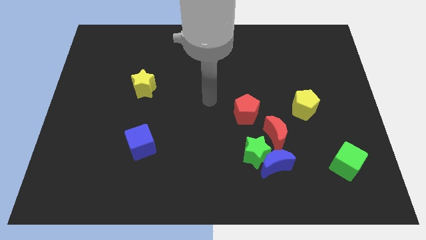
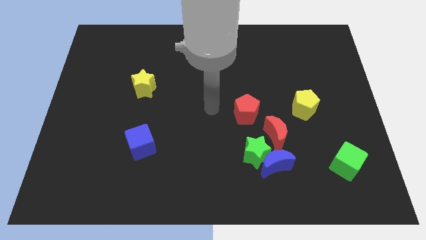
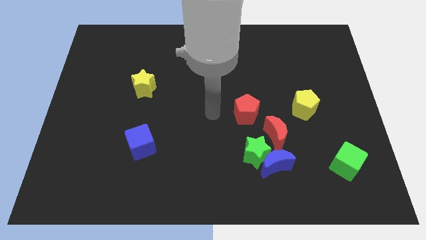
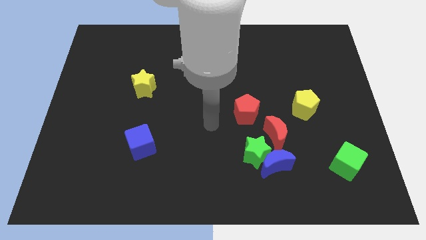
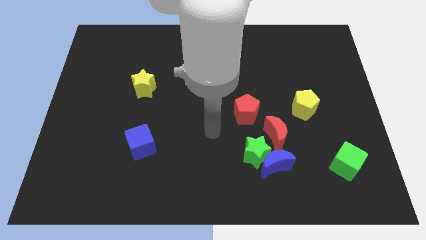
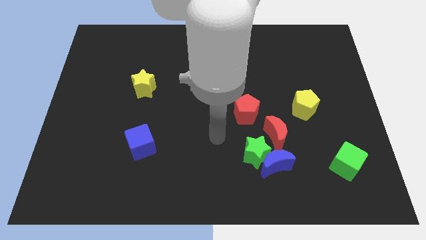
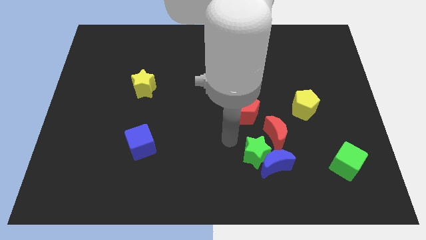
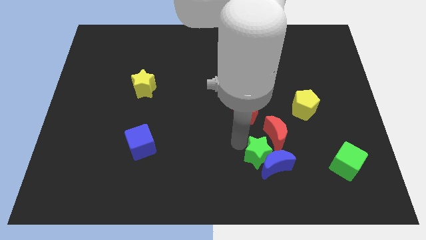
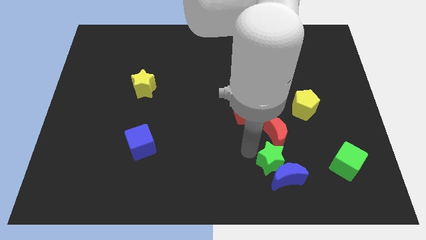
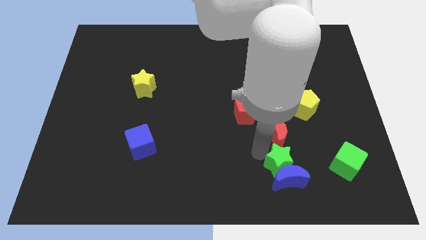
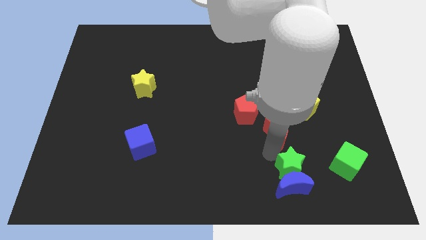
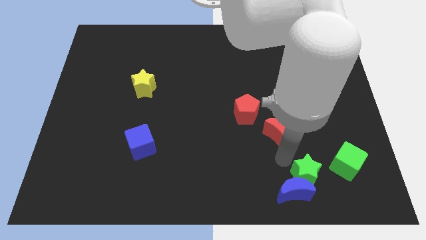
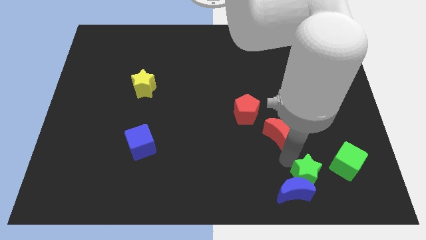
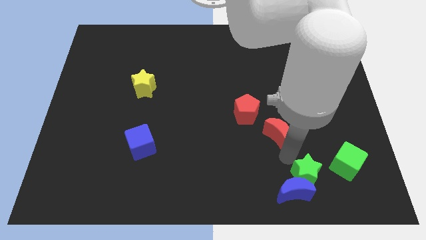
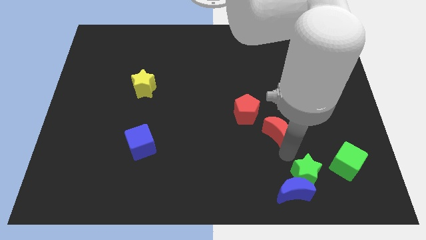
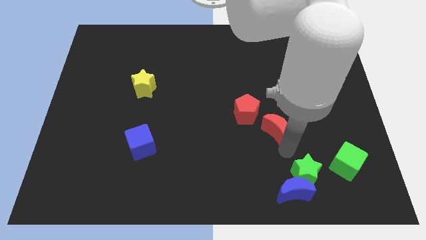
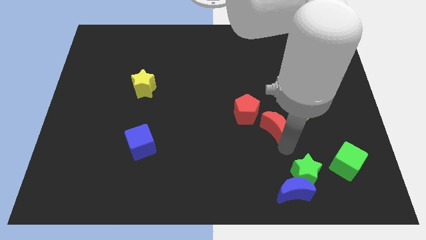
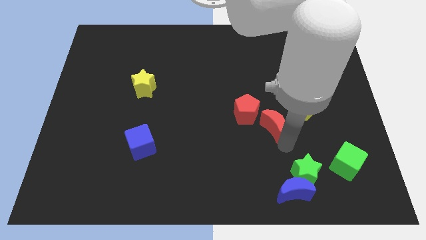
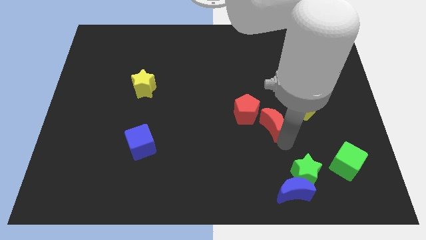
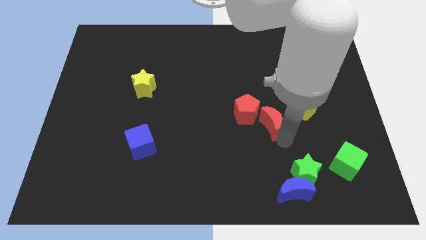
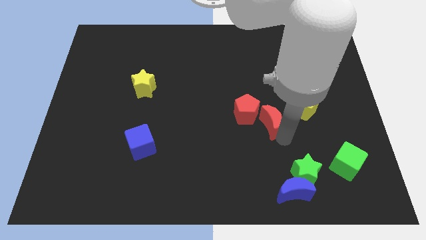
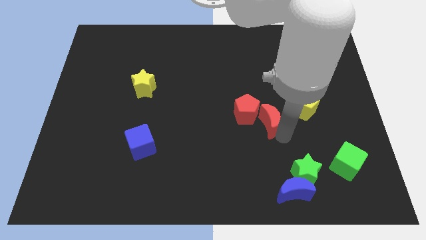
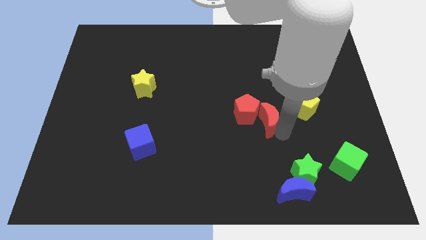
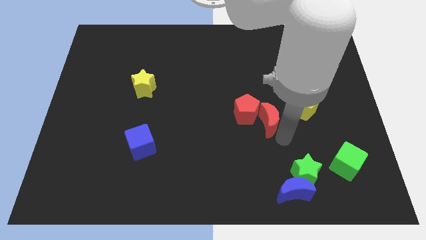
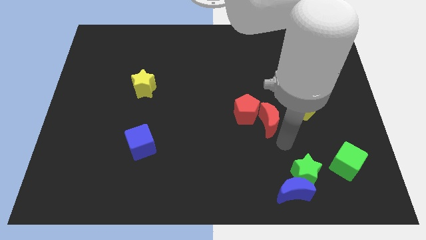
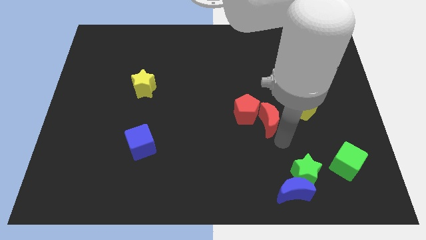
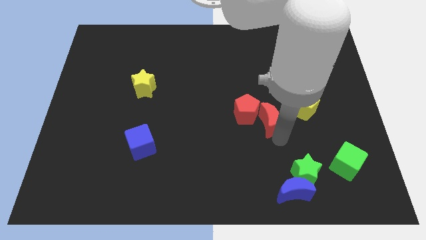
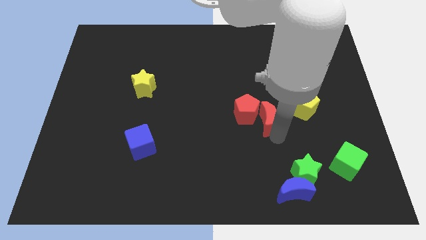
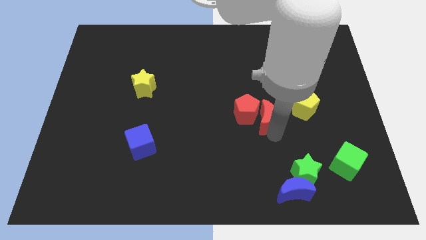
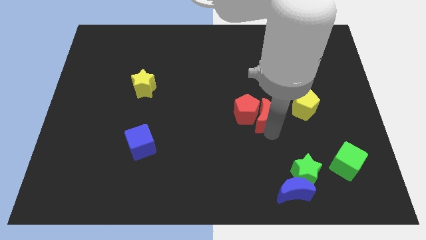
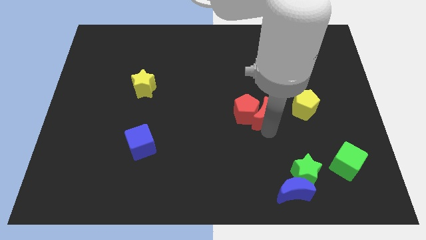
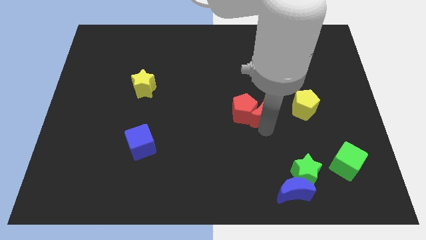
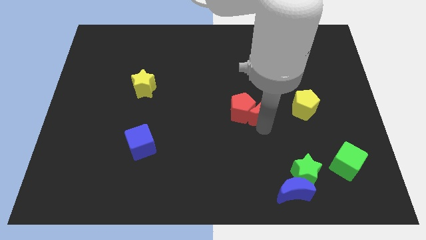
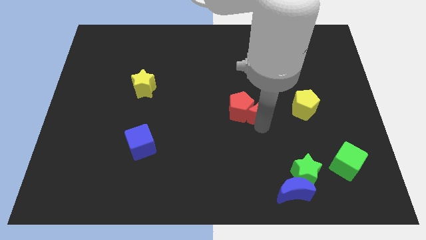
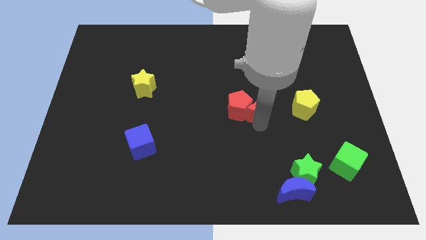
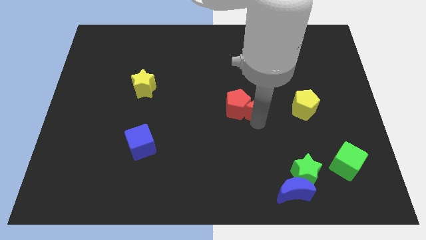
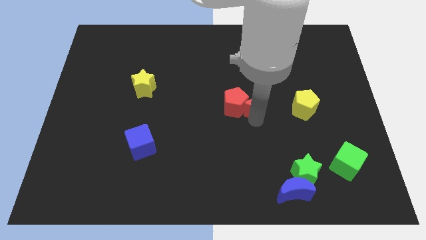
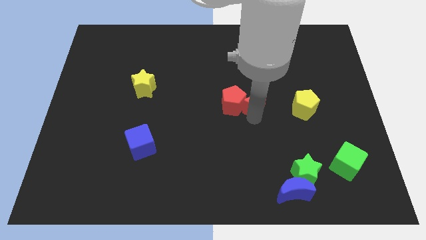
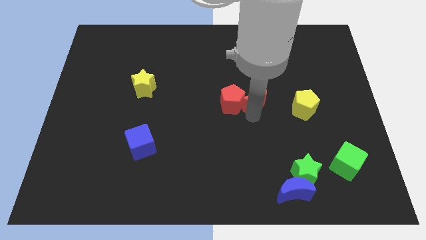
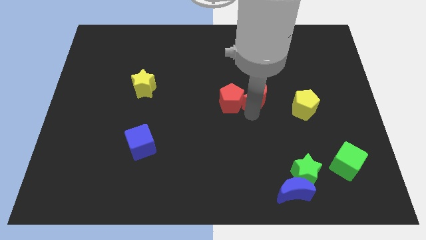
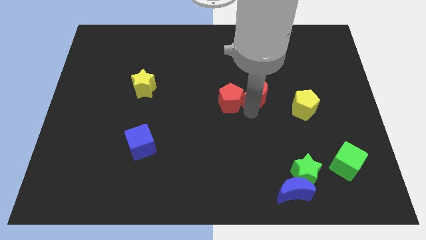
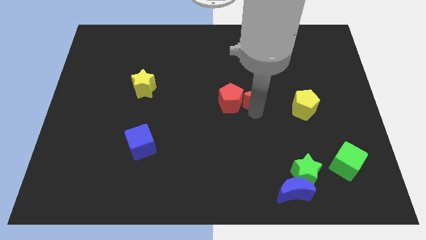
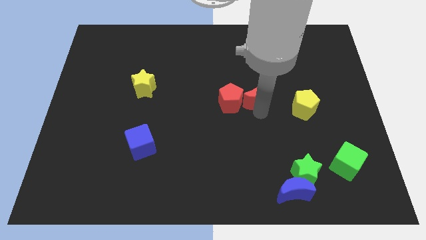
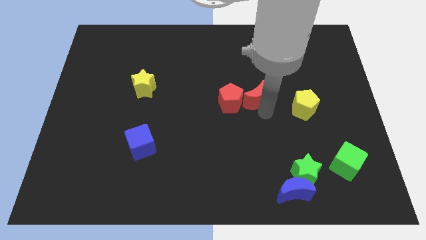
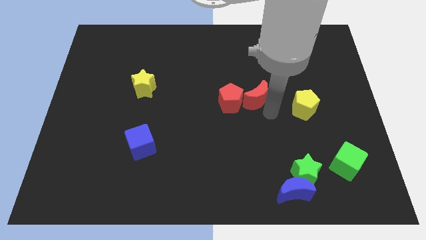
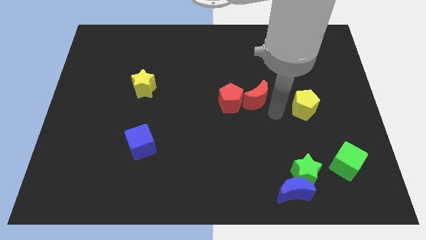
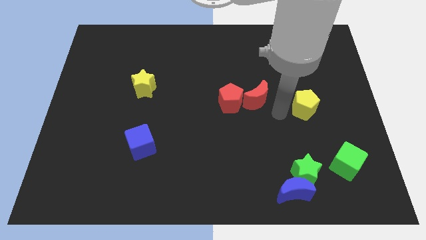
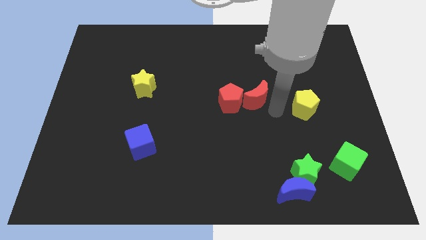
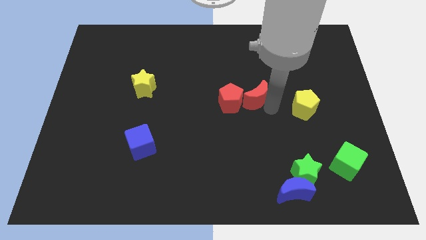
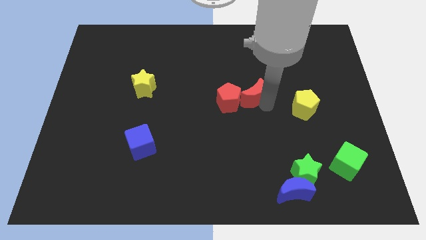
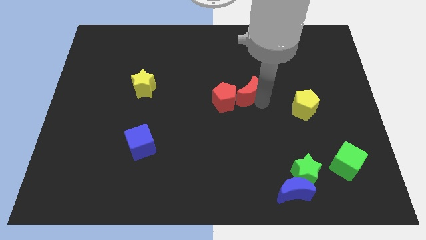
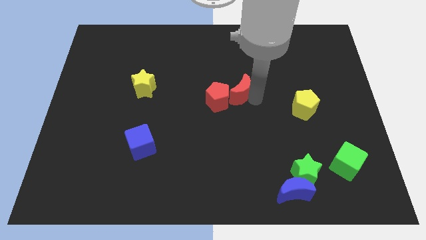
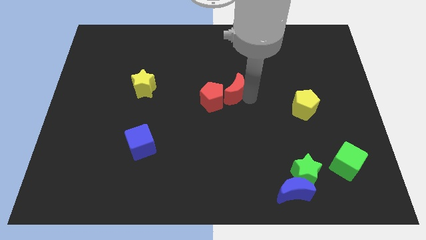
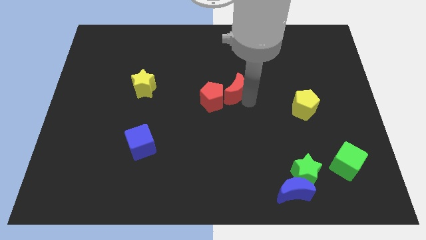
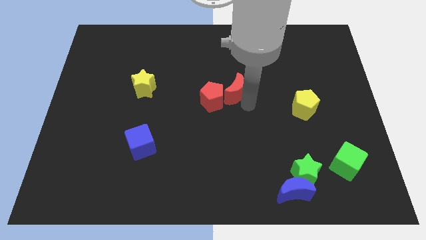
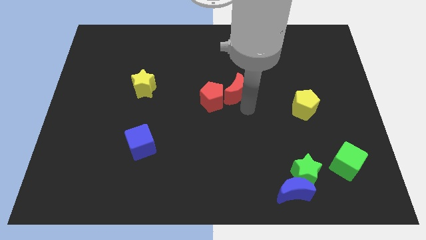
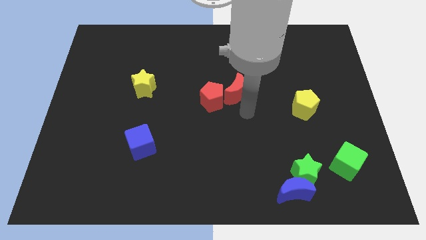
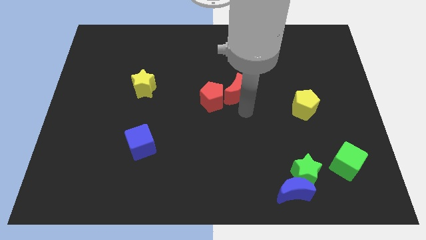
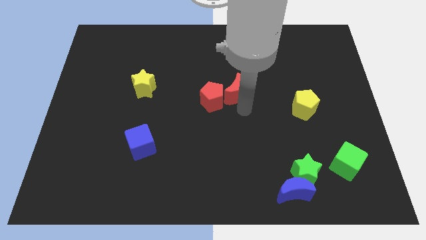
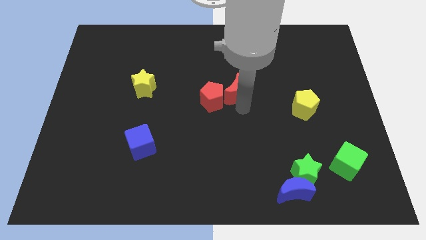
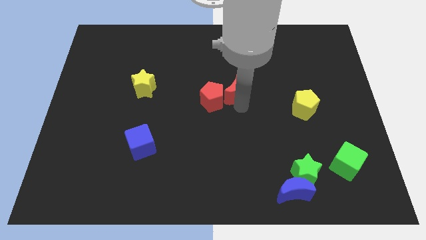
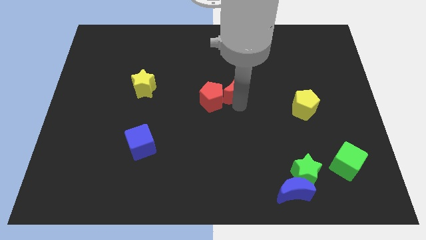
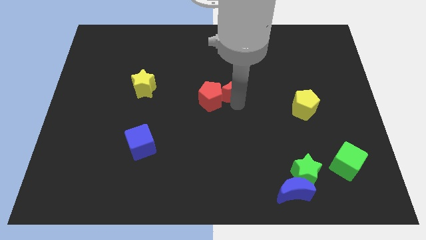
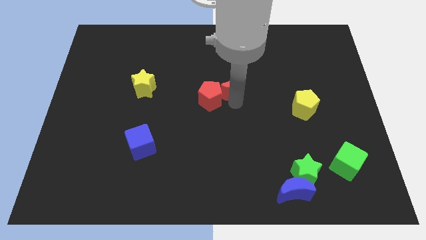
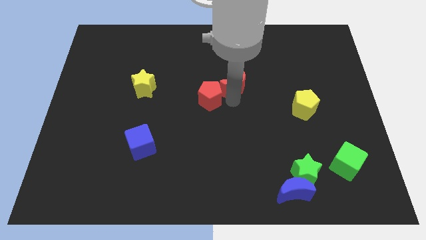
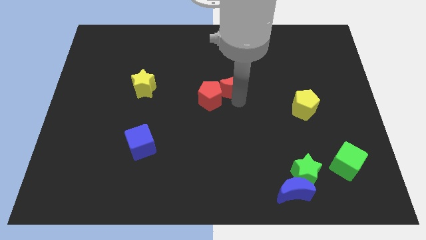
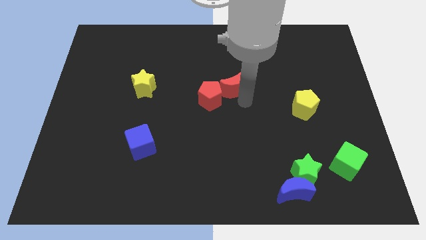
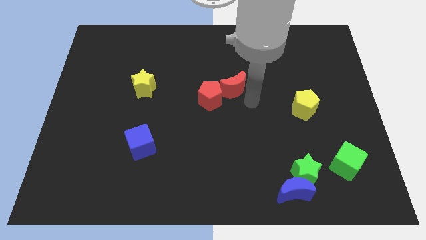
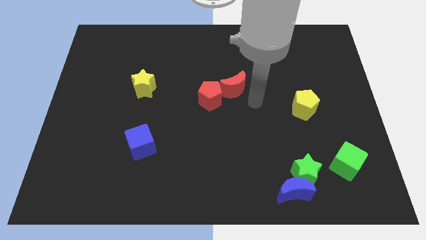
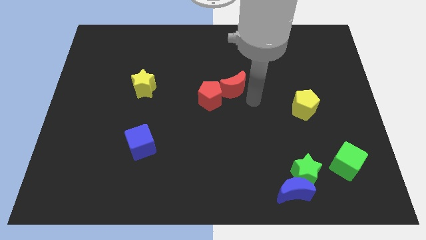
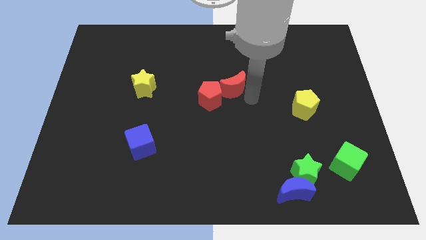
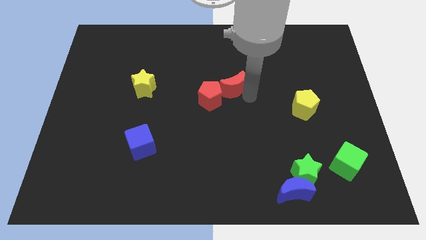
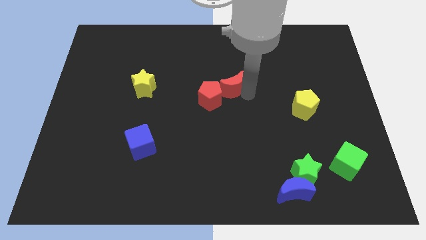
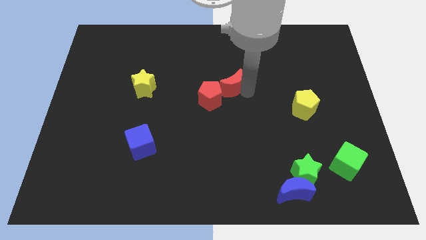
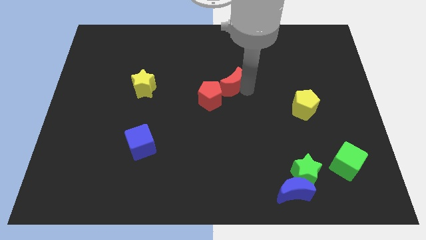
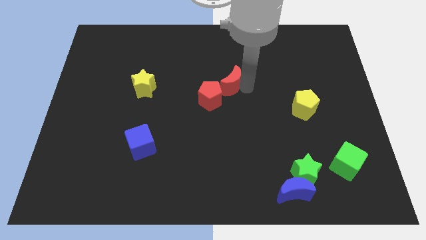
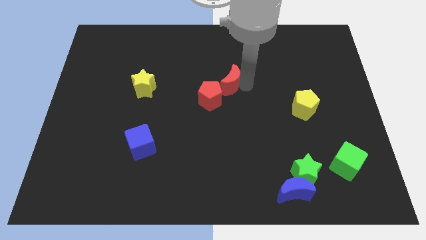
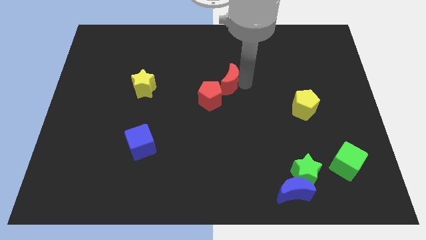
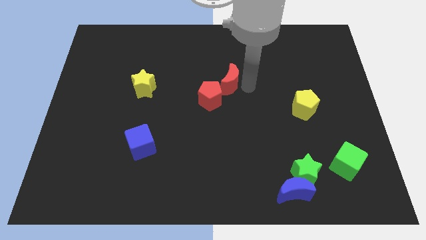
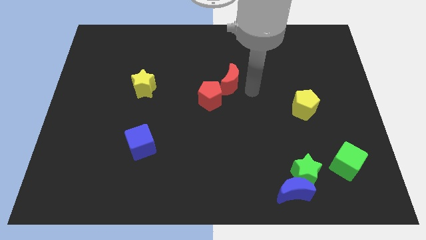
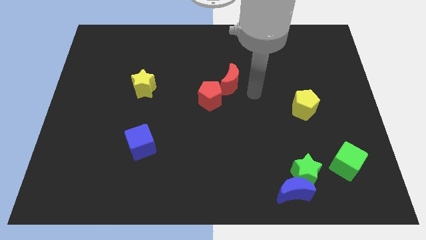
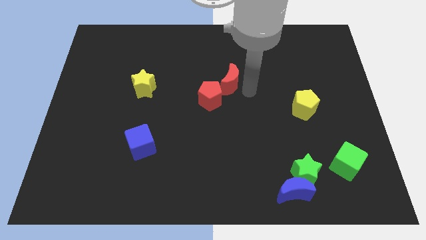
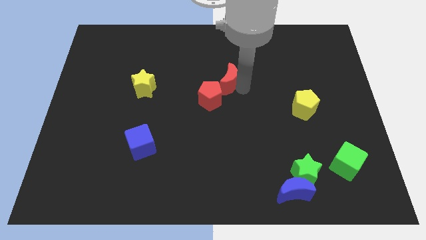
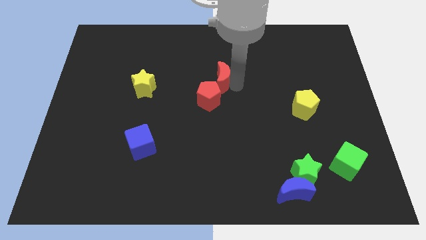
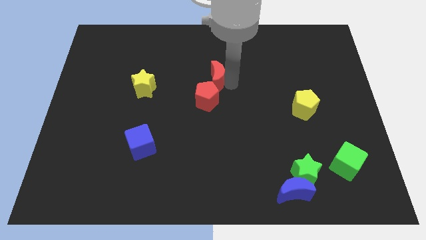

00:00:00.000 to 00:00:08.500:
move the red moon upwards and to the left
